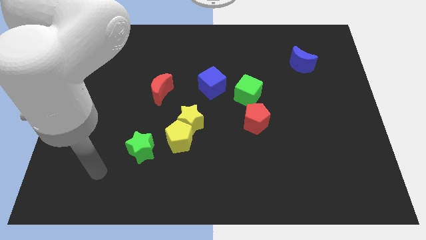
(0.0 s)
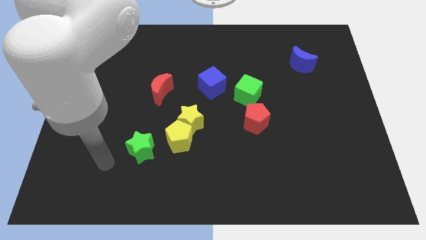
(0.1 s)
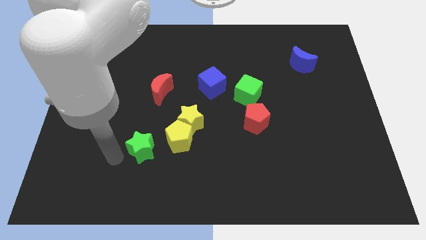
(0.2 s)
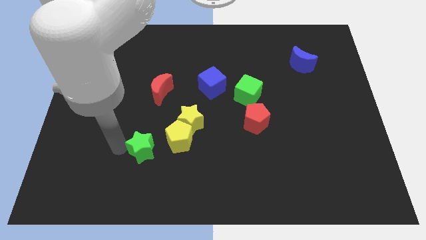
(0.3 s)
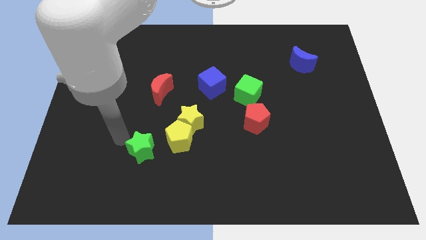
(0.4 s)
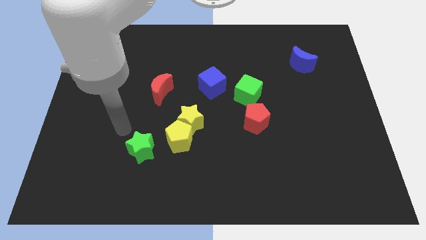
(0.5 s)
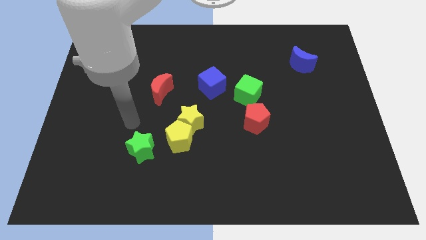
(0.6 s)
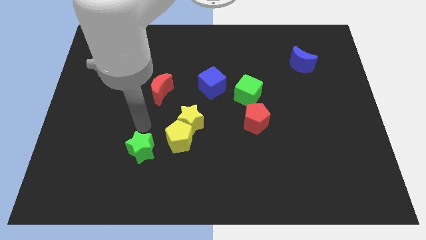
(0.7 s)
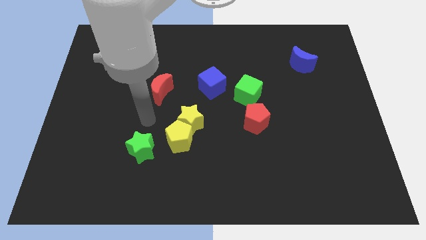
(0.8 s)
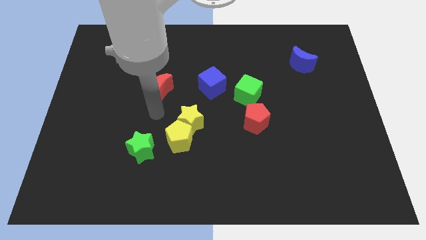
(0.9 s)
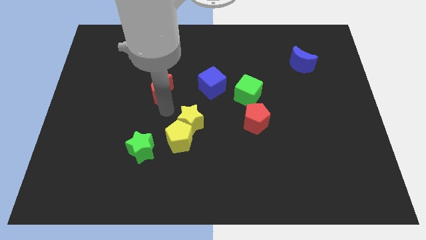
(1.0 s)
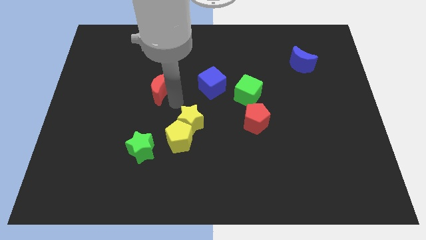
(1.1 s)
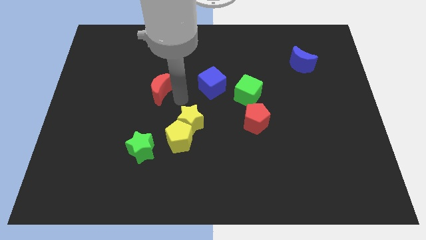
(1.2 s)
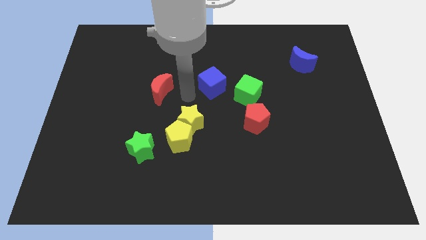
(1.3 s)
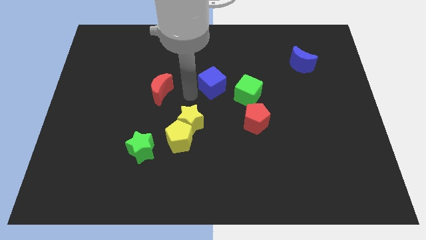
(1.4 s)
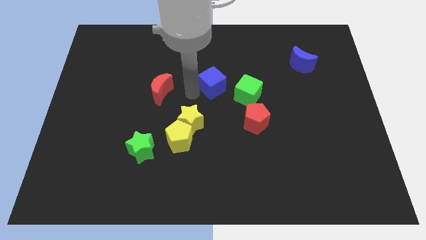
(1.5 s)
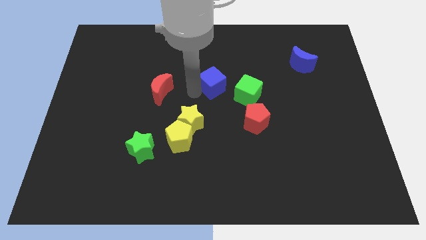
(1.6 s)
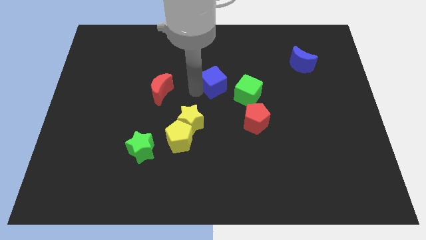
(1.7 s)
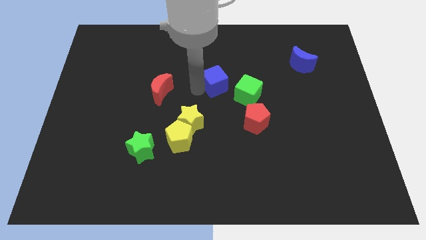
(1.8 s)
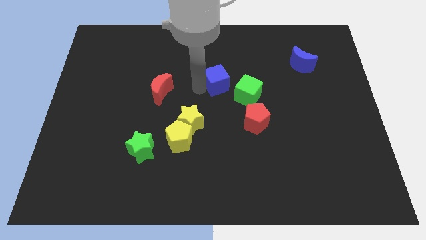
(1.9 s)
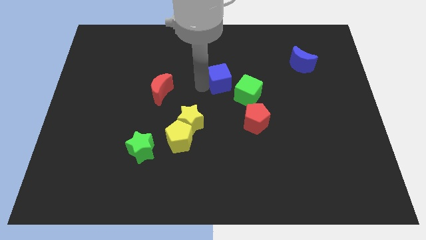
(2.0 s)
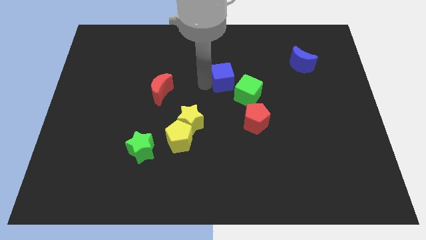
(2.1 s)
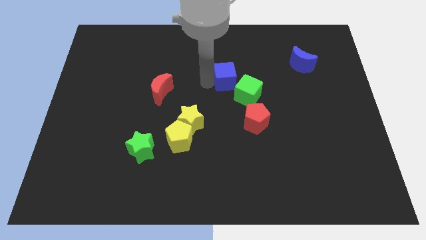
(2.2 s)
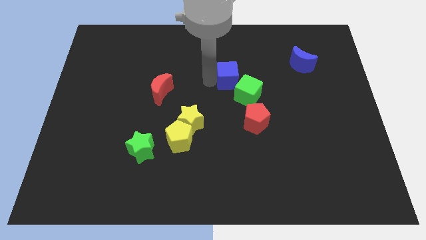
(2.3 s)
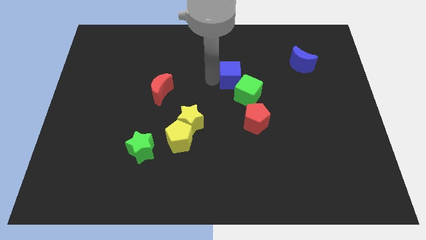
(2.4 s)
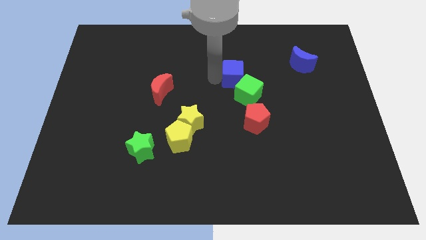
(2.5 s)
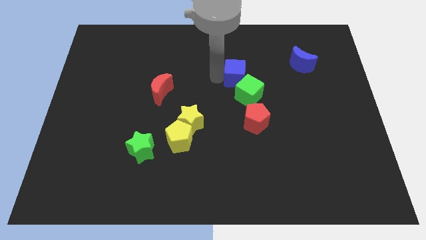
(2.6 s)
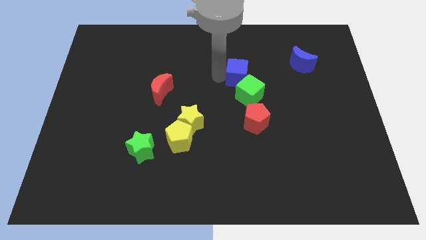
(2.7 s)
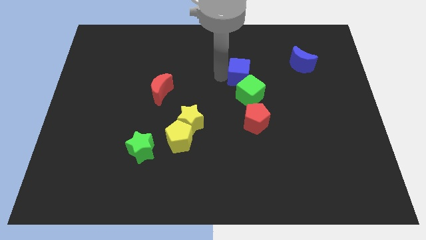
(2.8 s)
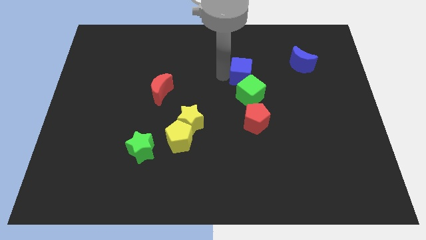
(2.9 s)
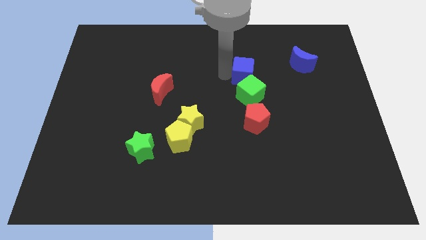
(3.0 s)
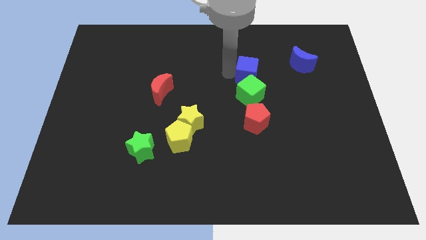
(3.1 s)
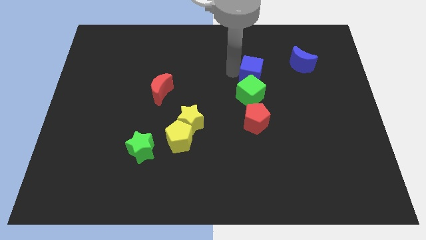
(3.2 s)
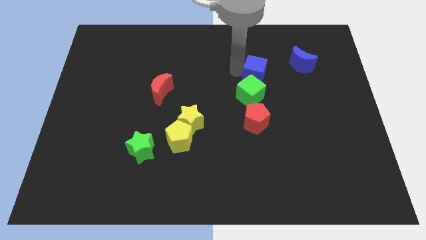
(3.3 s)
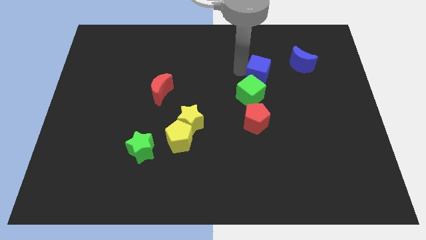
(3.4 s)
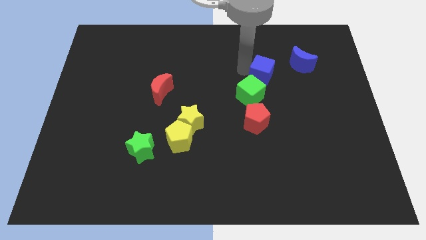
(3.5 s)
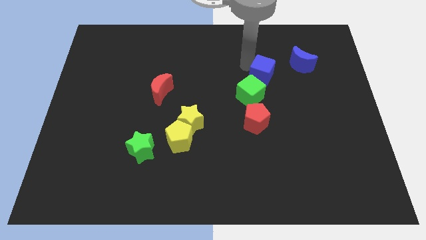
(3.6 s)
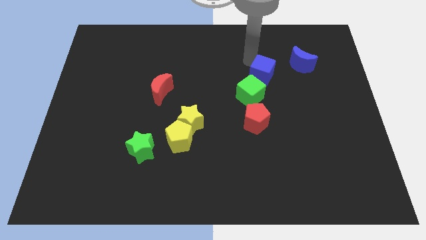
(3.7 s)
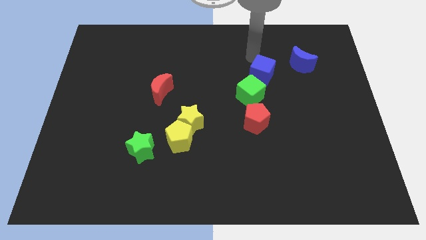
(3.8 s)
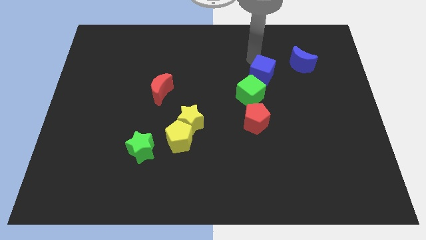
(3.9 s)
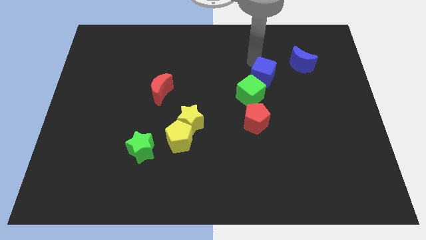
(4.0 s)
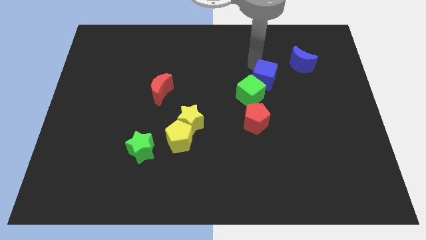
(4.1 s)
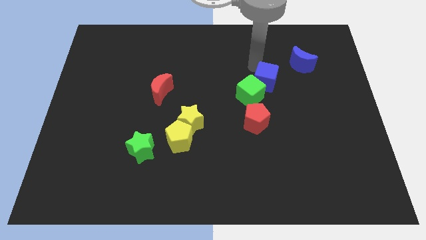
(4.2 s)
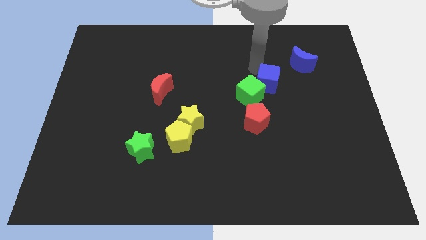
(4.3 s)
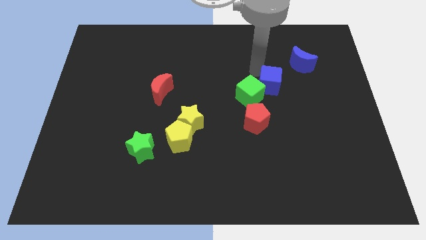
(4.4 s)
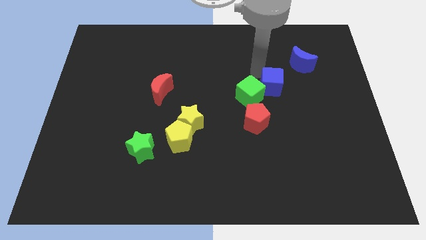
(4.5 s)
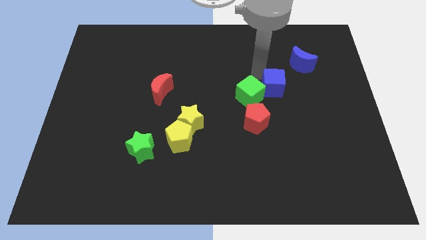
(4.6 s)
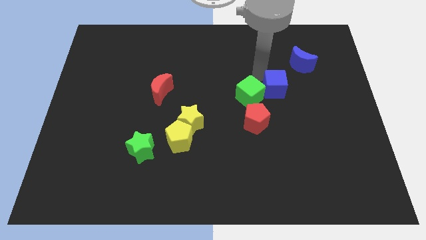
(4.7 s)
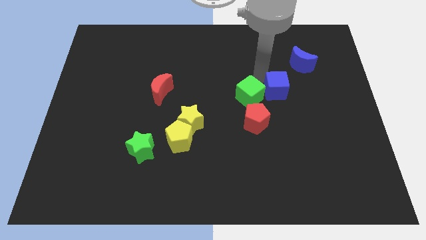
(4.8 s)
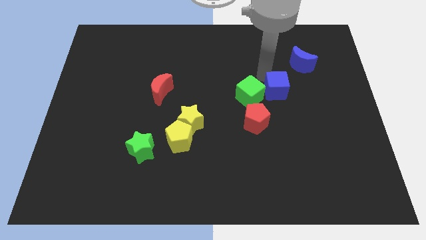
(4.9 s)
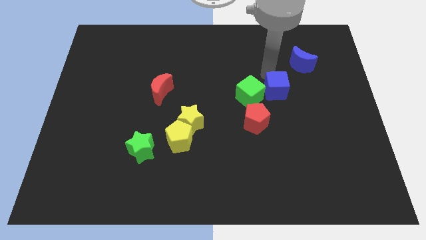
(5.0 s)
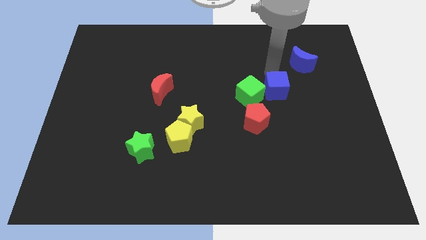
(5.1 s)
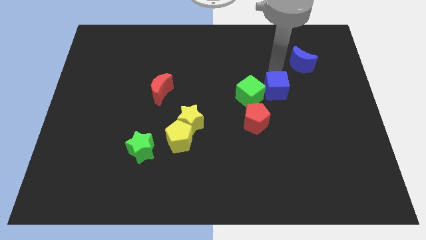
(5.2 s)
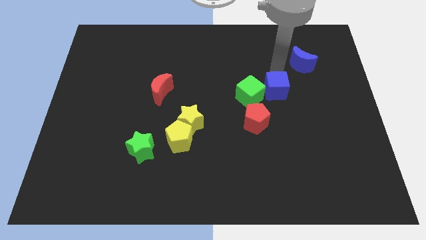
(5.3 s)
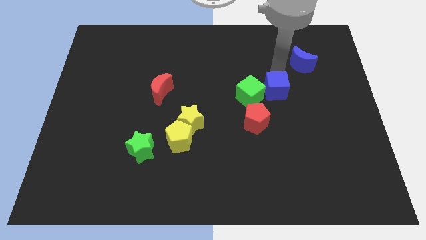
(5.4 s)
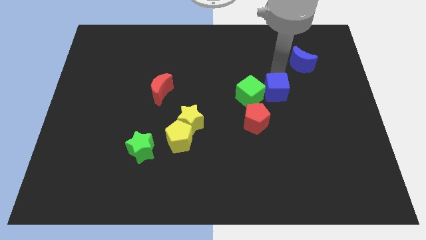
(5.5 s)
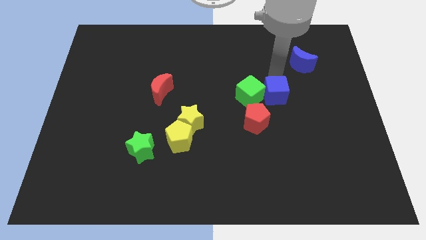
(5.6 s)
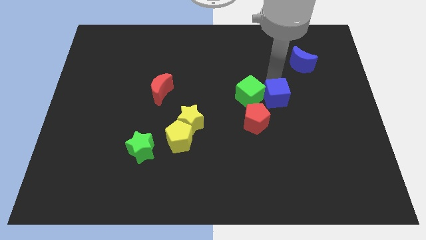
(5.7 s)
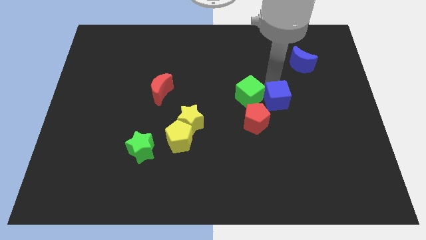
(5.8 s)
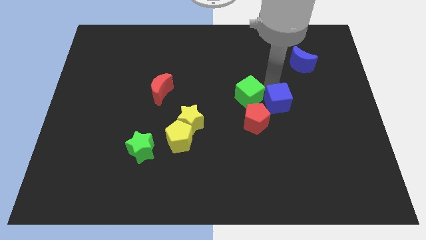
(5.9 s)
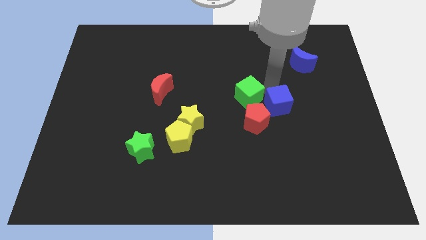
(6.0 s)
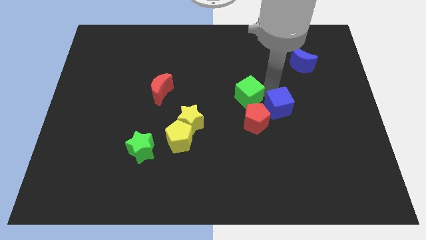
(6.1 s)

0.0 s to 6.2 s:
slide the blue cube to the right of the red pentagon

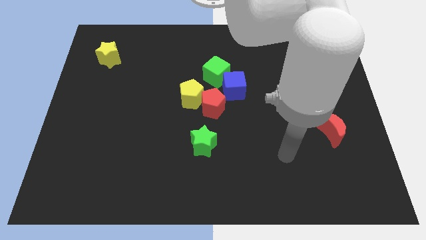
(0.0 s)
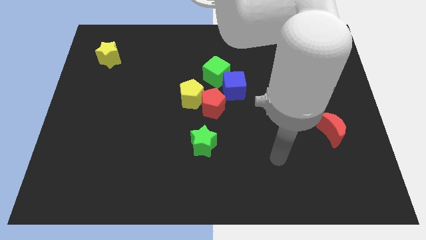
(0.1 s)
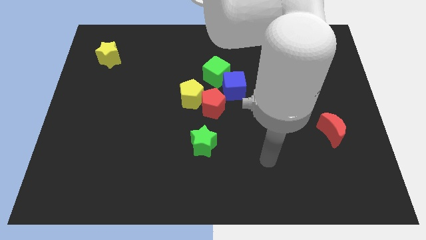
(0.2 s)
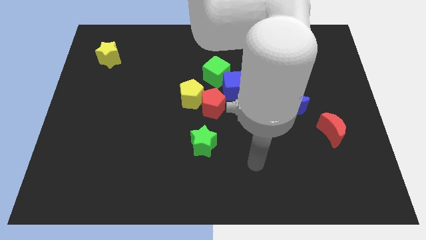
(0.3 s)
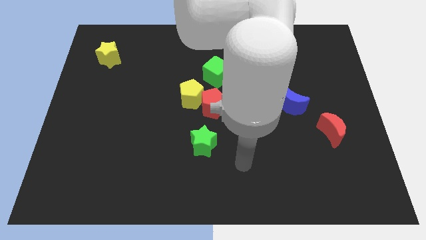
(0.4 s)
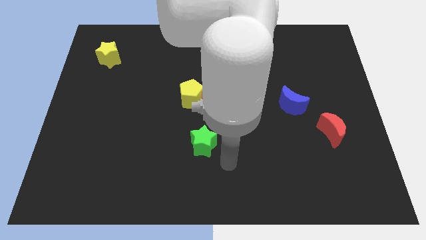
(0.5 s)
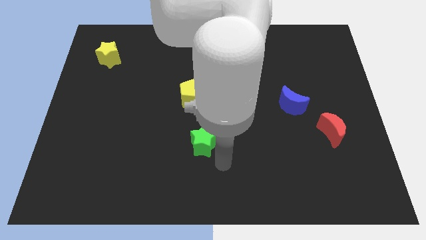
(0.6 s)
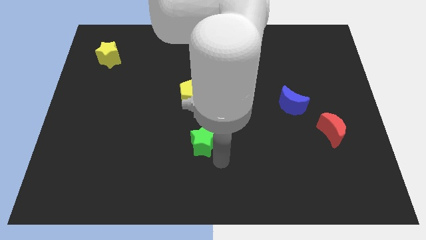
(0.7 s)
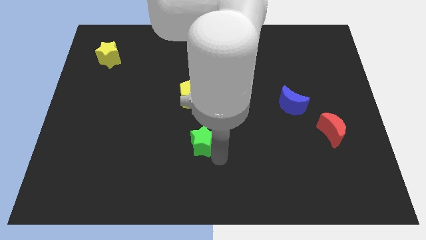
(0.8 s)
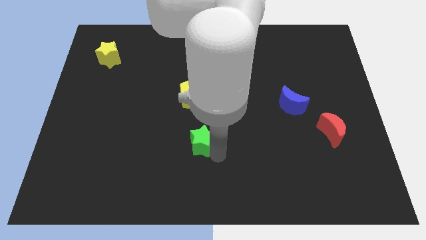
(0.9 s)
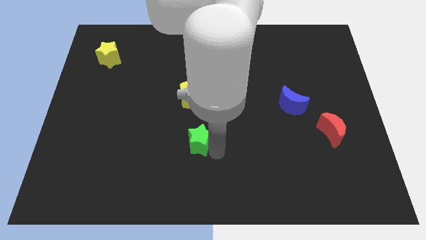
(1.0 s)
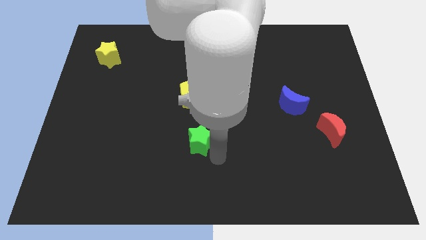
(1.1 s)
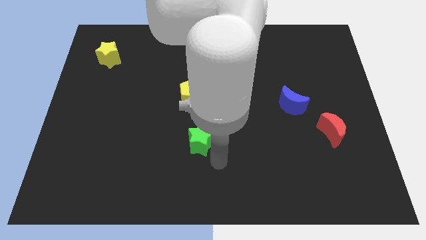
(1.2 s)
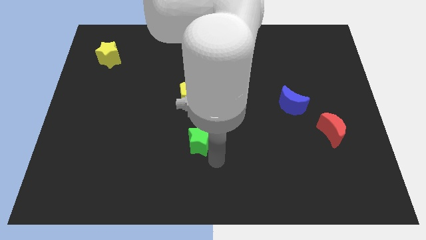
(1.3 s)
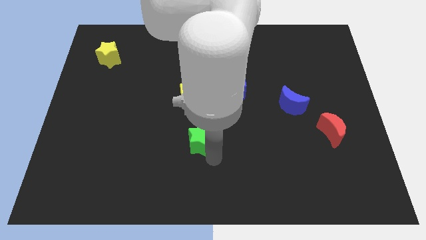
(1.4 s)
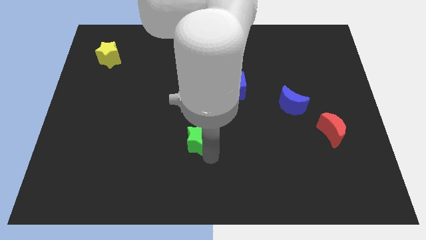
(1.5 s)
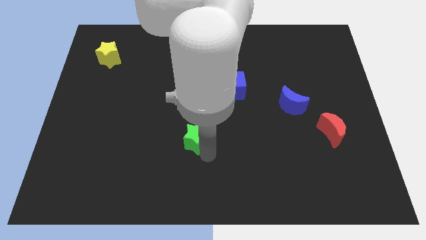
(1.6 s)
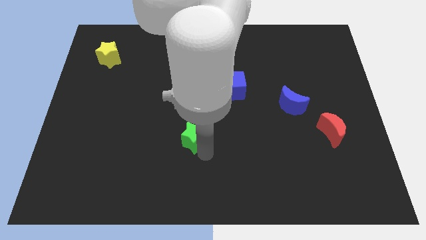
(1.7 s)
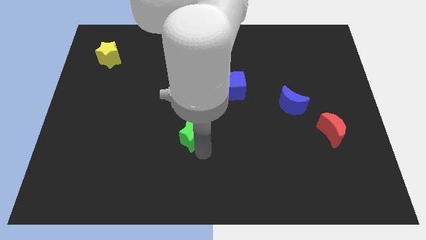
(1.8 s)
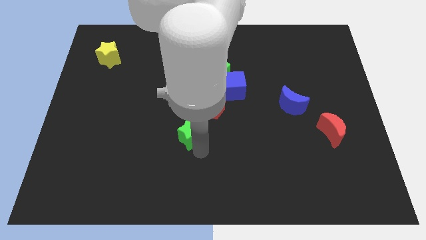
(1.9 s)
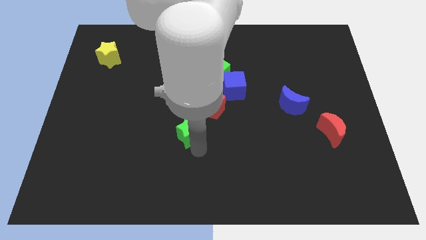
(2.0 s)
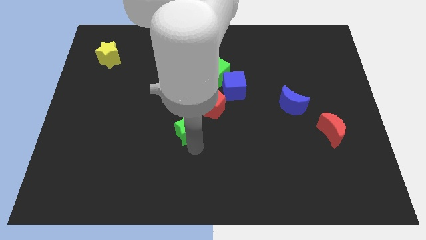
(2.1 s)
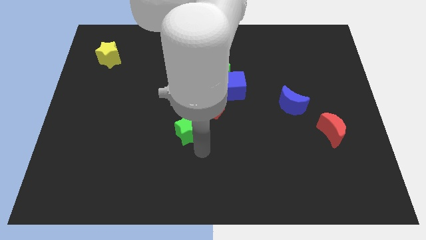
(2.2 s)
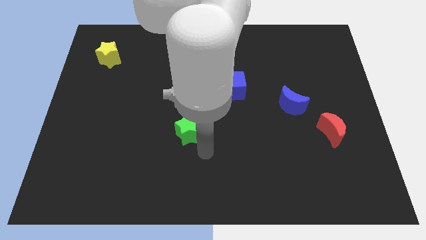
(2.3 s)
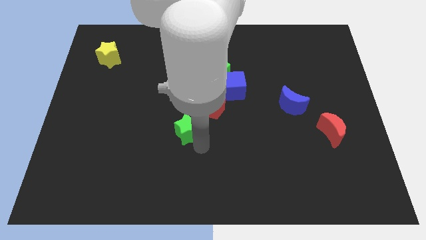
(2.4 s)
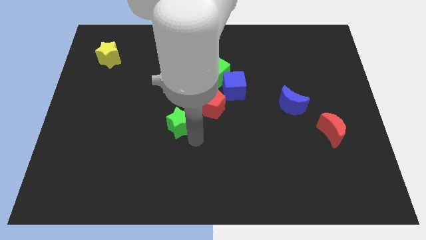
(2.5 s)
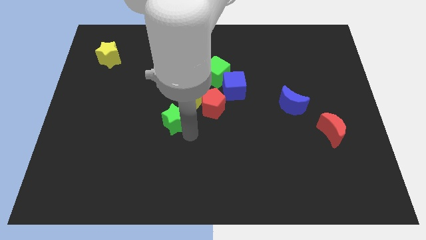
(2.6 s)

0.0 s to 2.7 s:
put the green star to the left of the red pentagon
